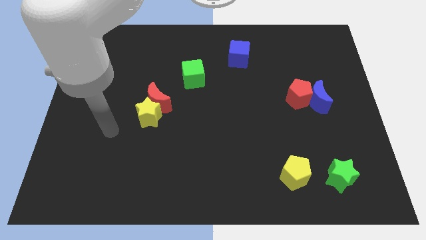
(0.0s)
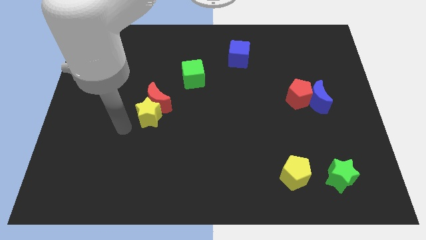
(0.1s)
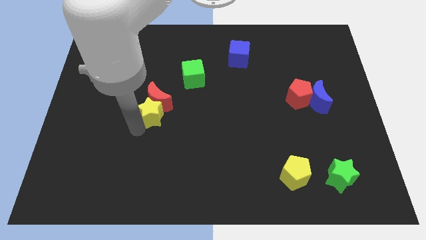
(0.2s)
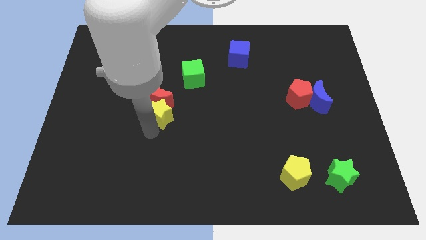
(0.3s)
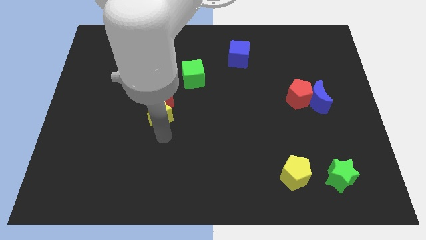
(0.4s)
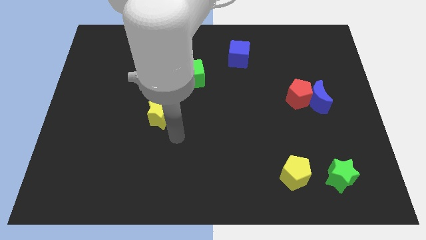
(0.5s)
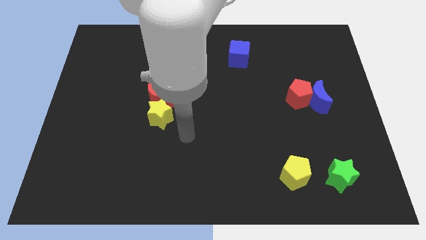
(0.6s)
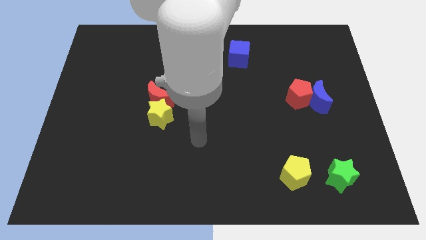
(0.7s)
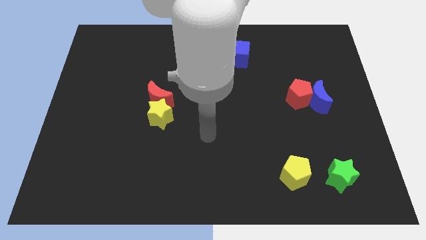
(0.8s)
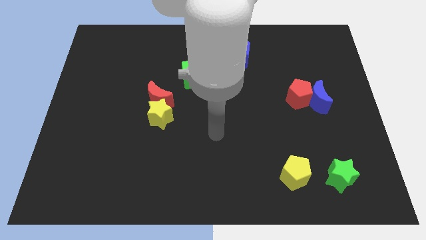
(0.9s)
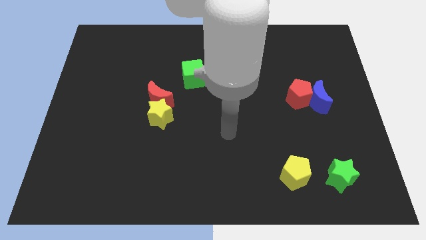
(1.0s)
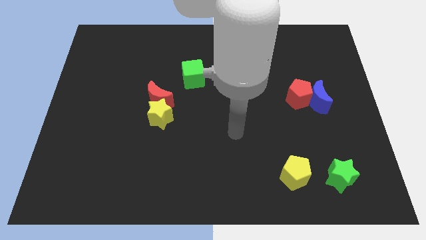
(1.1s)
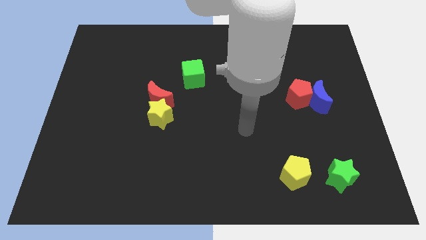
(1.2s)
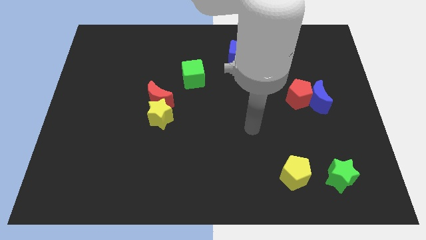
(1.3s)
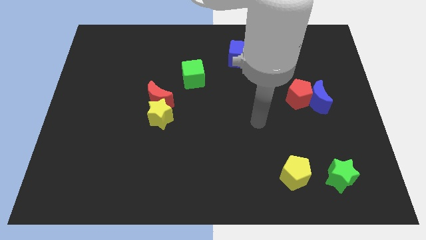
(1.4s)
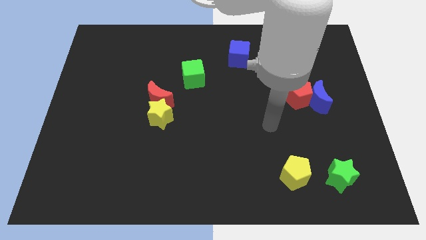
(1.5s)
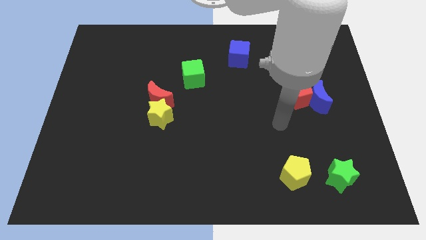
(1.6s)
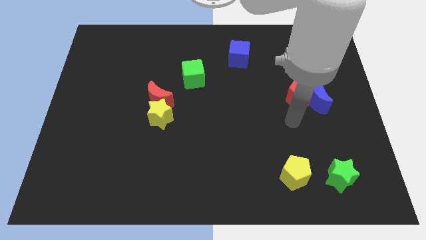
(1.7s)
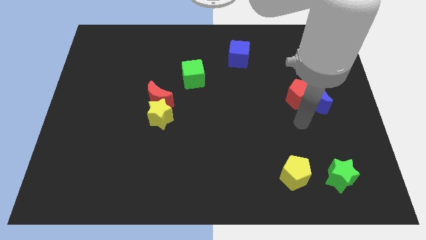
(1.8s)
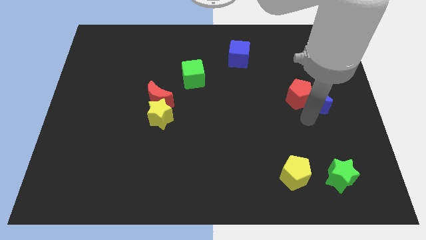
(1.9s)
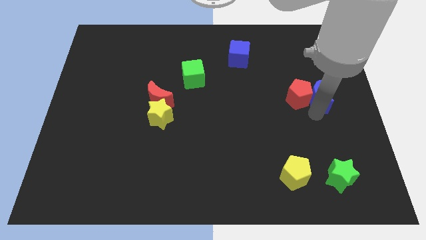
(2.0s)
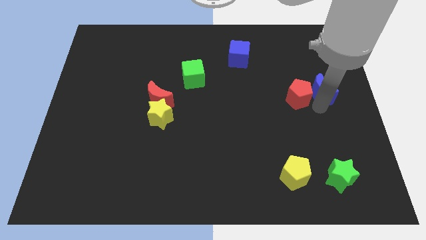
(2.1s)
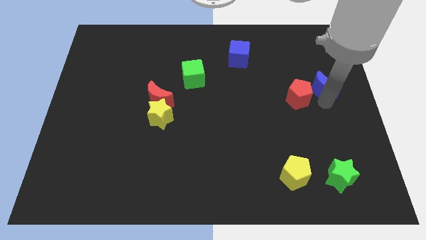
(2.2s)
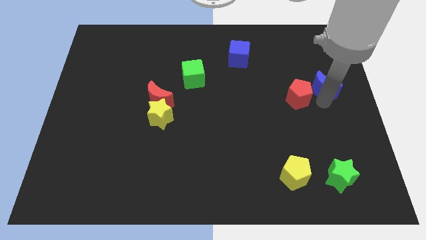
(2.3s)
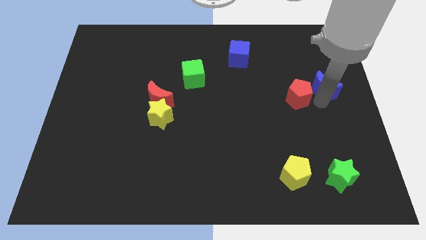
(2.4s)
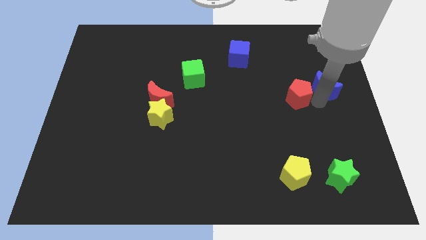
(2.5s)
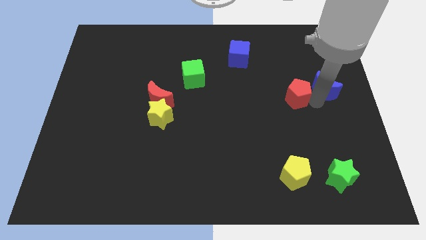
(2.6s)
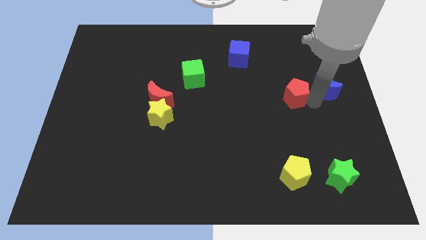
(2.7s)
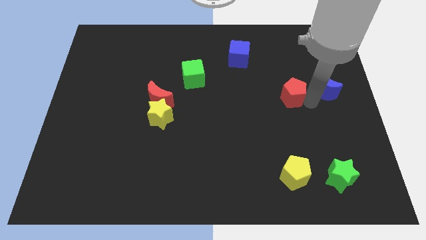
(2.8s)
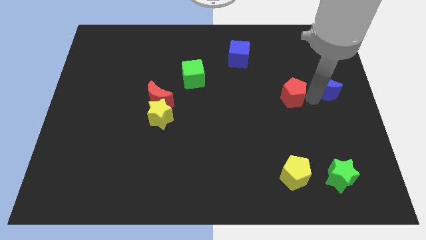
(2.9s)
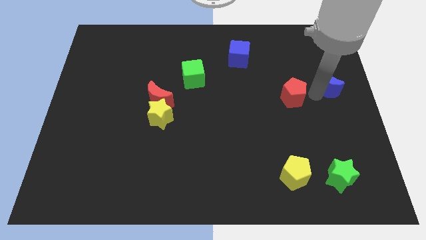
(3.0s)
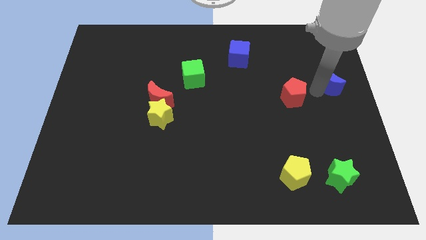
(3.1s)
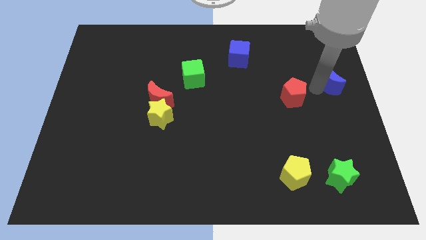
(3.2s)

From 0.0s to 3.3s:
pull the red pentagon apart from the blue moon

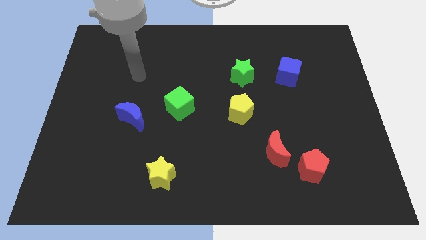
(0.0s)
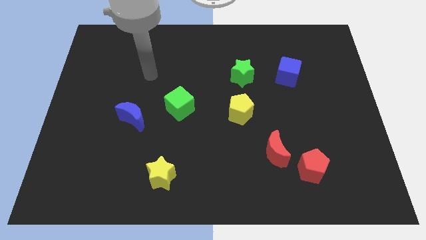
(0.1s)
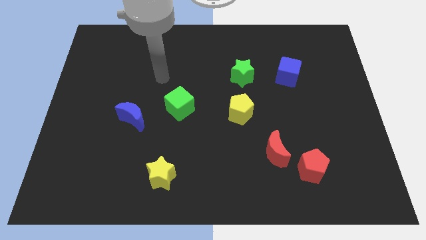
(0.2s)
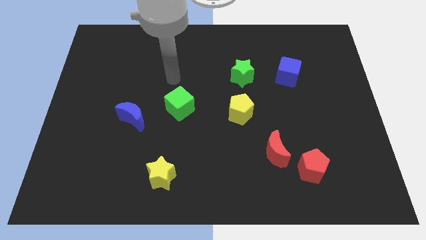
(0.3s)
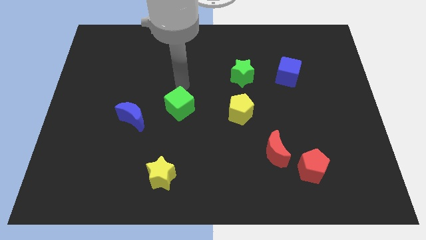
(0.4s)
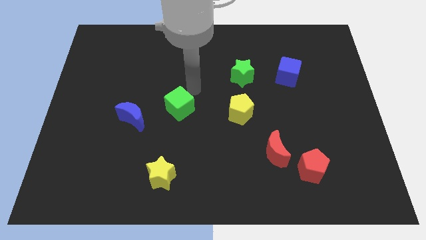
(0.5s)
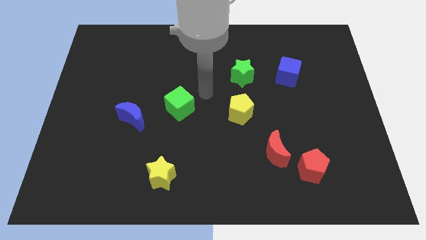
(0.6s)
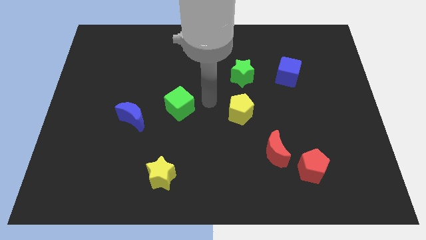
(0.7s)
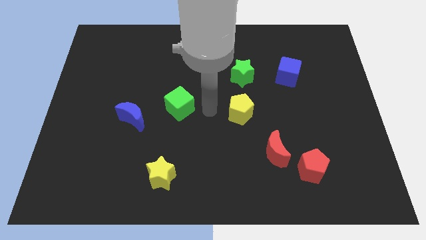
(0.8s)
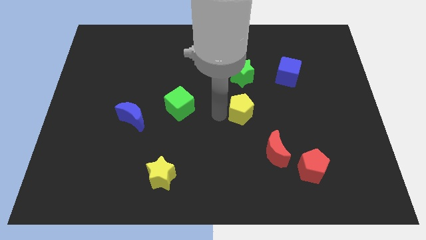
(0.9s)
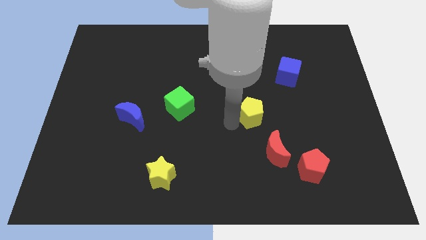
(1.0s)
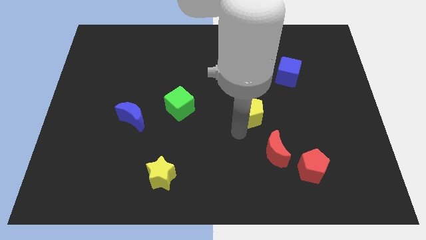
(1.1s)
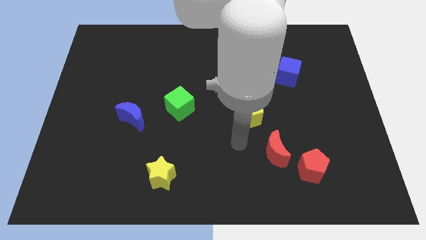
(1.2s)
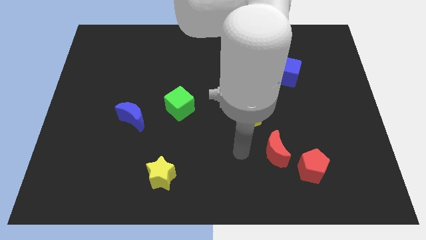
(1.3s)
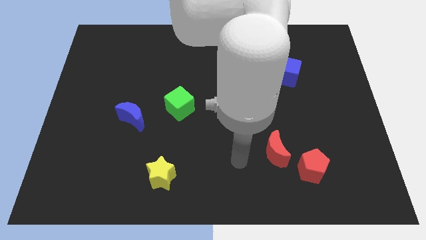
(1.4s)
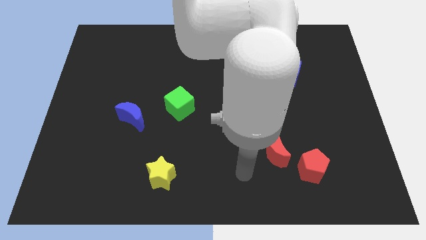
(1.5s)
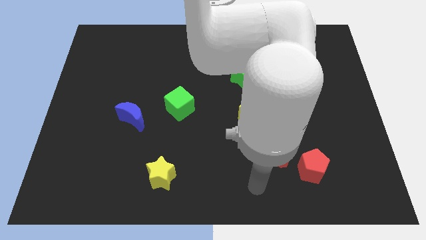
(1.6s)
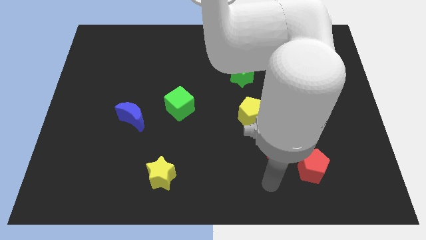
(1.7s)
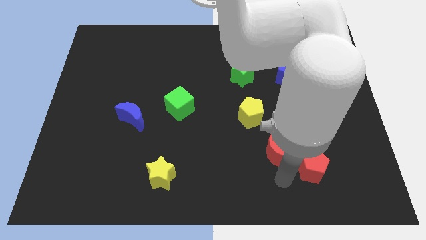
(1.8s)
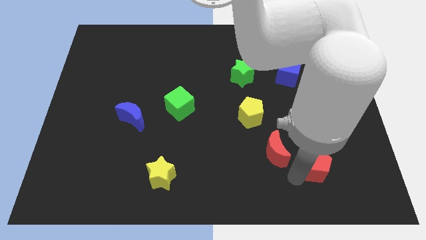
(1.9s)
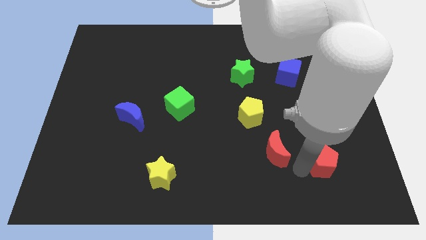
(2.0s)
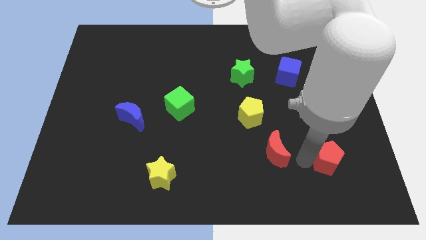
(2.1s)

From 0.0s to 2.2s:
move the red moon away from the red pentagon

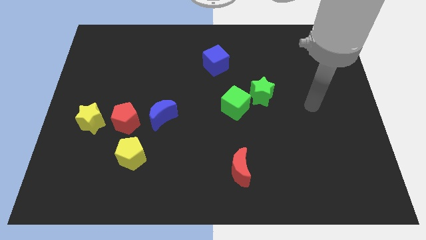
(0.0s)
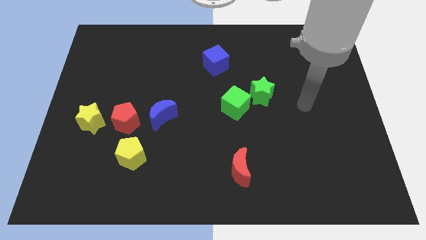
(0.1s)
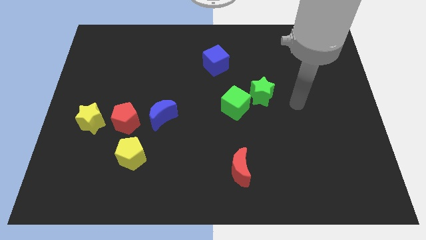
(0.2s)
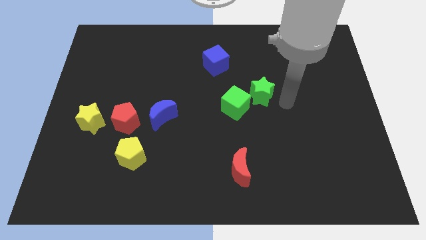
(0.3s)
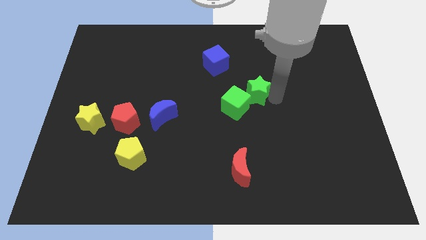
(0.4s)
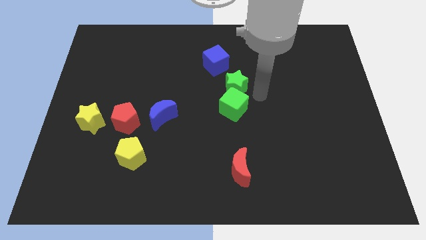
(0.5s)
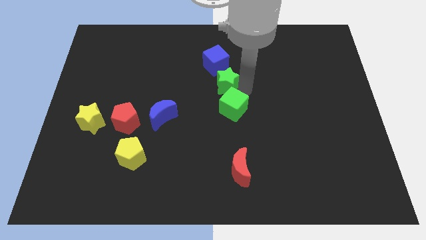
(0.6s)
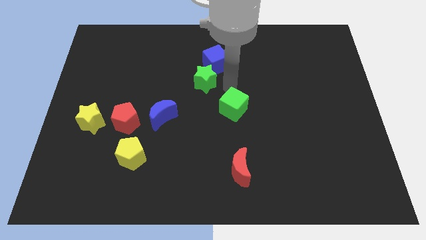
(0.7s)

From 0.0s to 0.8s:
separate the green cube from the green star

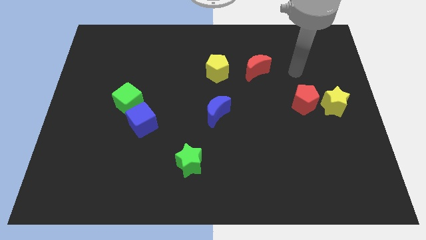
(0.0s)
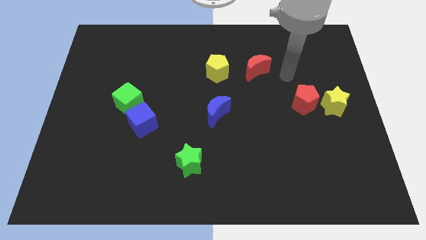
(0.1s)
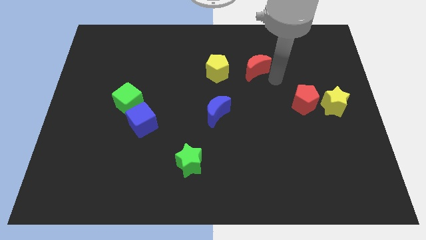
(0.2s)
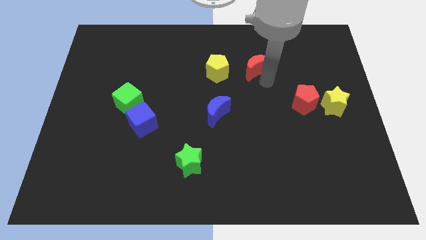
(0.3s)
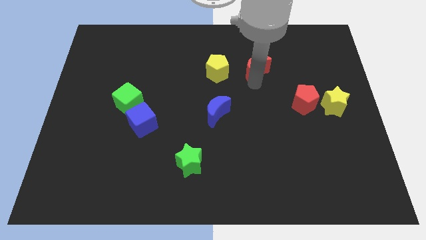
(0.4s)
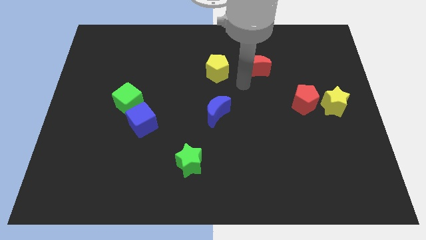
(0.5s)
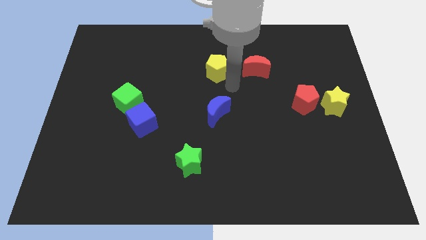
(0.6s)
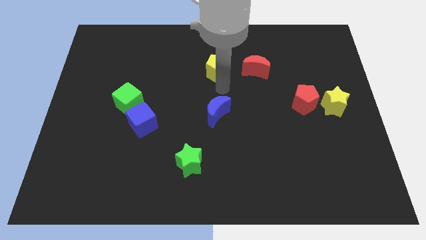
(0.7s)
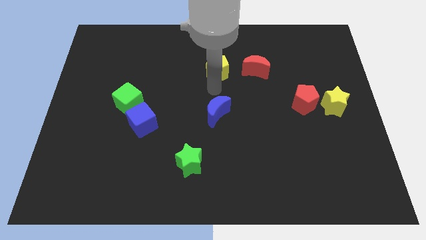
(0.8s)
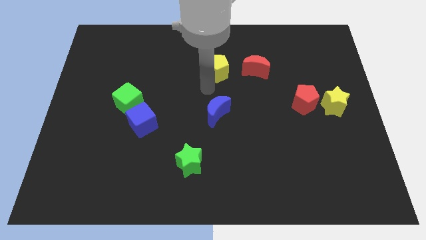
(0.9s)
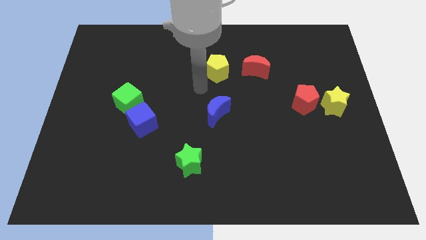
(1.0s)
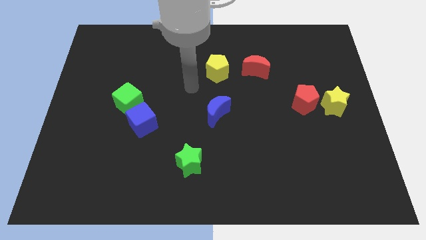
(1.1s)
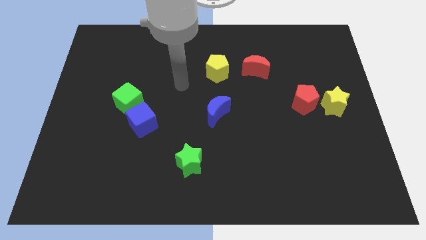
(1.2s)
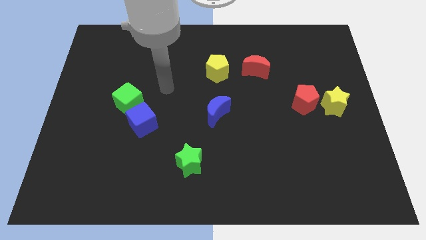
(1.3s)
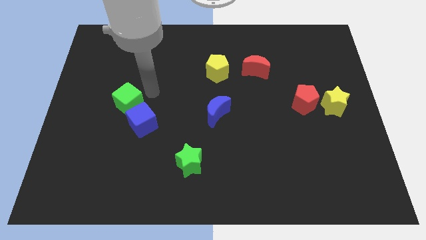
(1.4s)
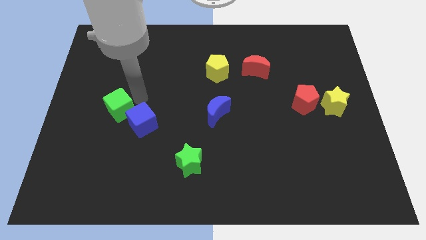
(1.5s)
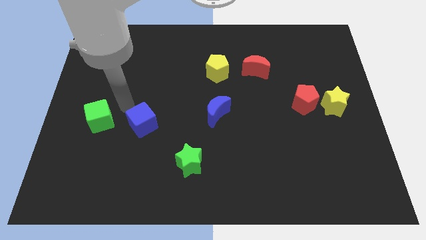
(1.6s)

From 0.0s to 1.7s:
move the blue cube away from the green cube

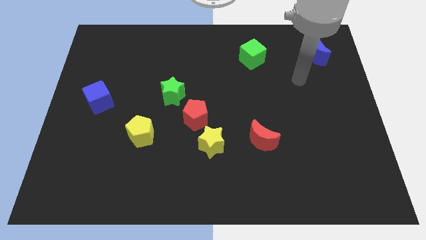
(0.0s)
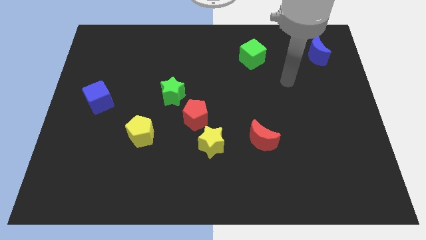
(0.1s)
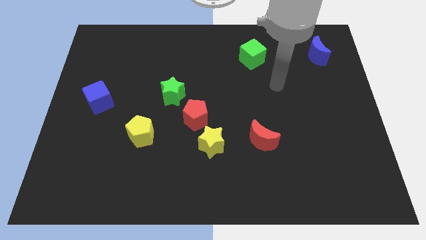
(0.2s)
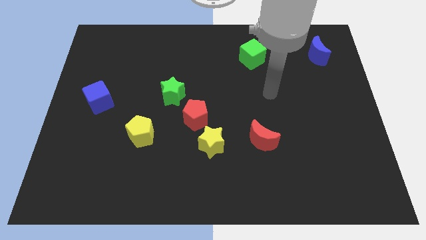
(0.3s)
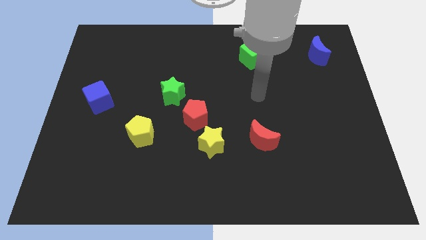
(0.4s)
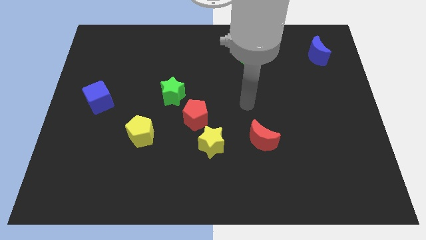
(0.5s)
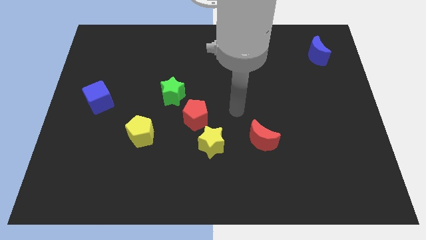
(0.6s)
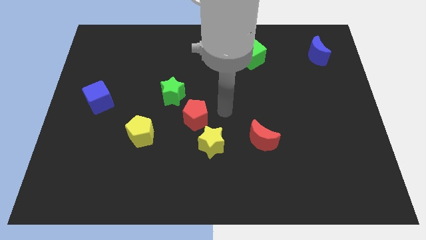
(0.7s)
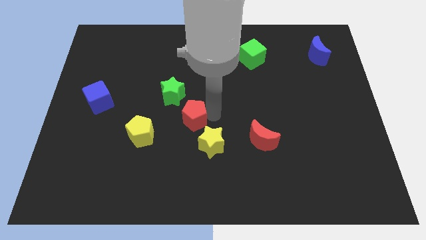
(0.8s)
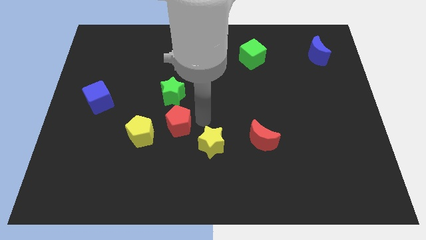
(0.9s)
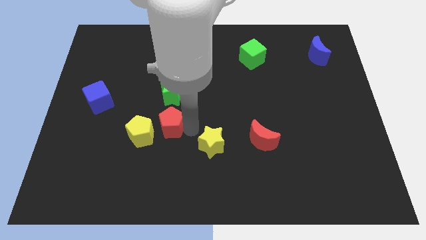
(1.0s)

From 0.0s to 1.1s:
separate the yellow star from the red pentagon

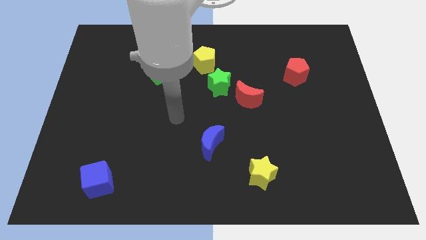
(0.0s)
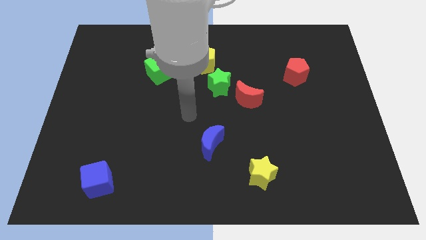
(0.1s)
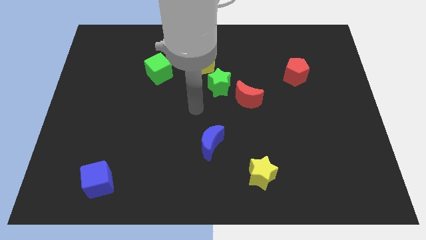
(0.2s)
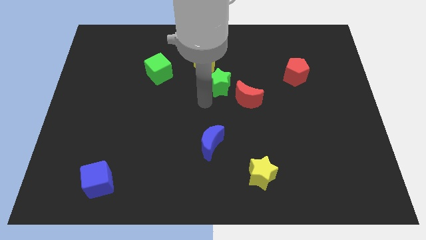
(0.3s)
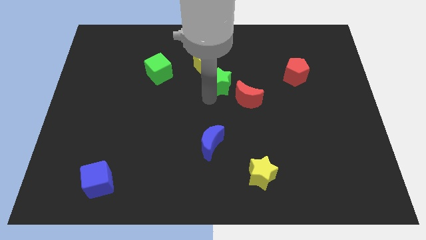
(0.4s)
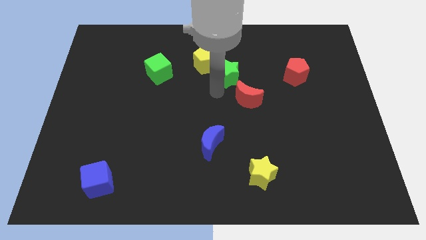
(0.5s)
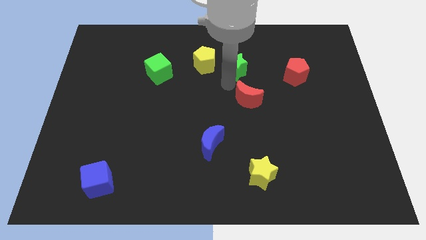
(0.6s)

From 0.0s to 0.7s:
move the red moon away from the green star
